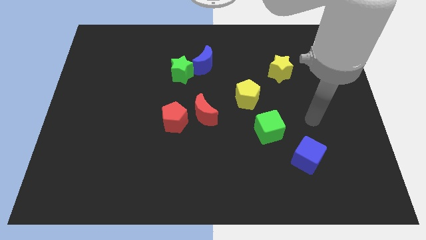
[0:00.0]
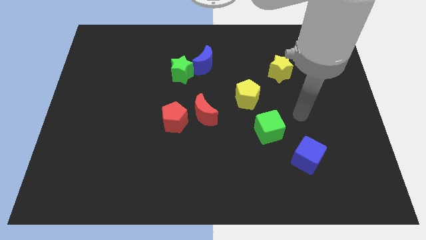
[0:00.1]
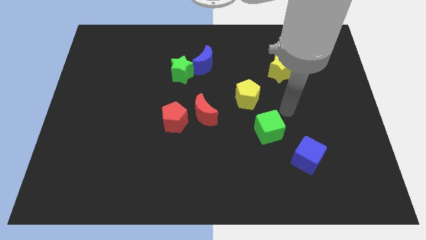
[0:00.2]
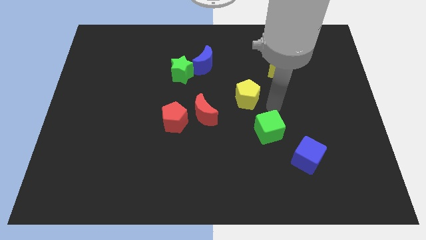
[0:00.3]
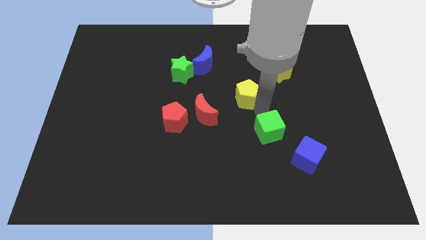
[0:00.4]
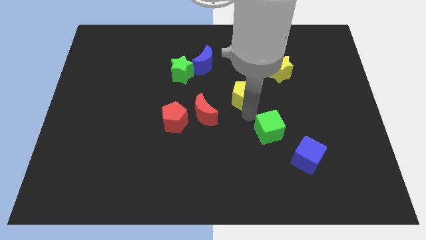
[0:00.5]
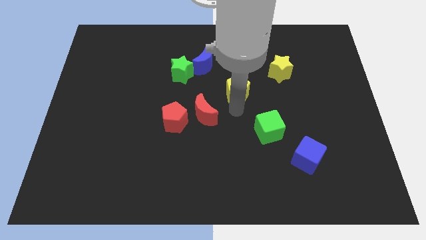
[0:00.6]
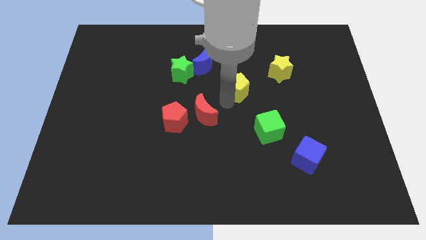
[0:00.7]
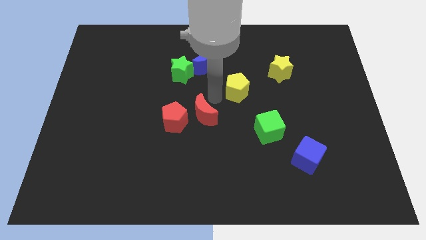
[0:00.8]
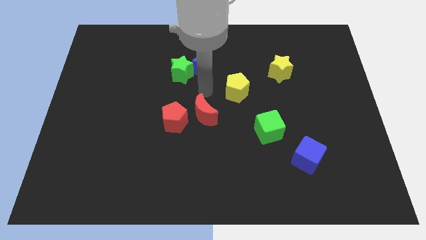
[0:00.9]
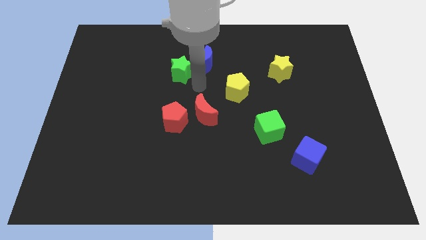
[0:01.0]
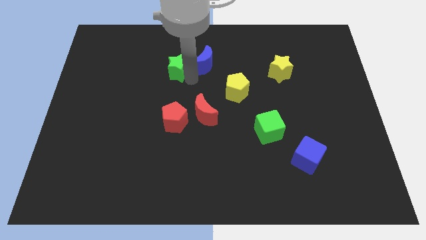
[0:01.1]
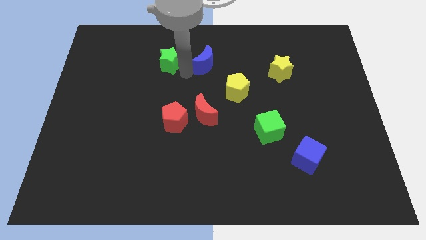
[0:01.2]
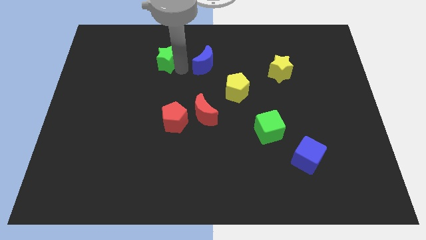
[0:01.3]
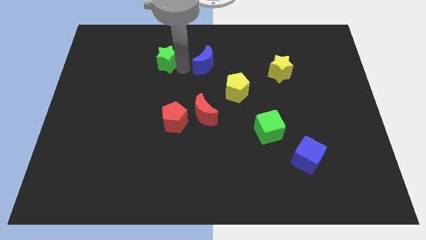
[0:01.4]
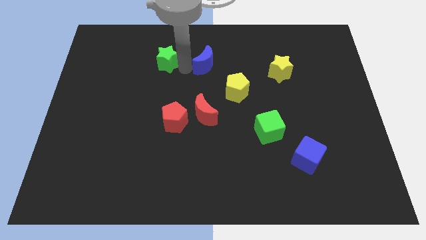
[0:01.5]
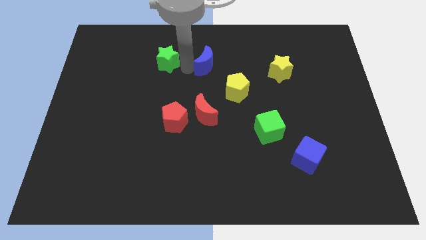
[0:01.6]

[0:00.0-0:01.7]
pull the blue moon apart from the green star

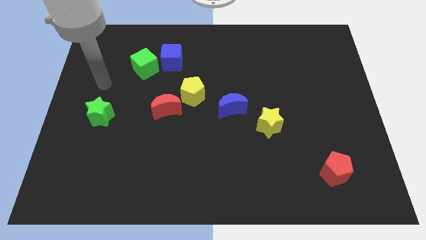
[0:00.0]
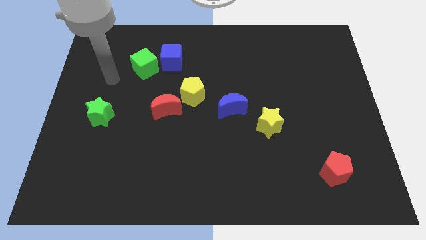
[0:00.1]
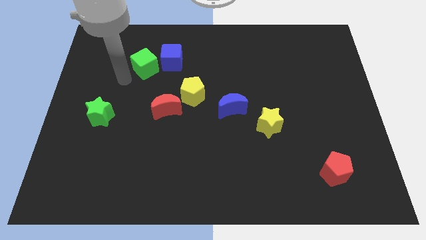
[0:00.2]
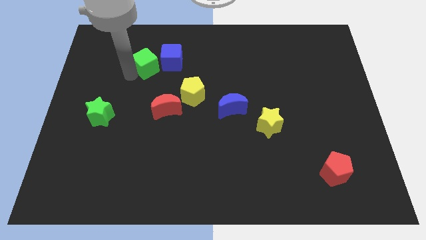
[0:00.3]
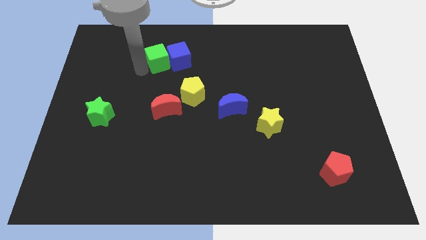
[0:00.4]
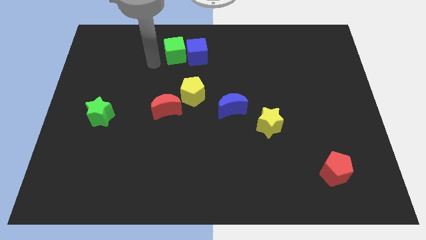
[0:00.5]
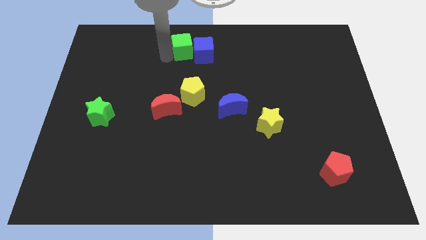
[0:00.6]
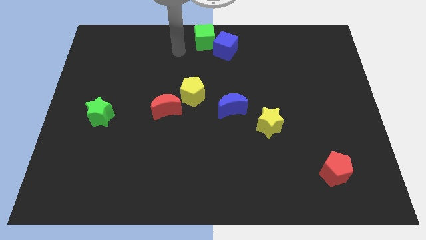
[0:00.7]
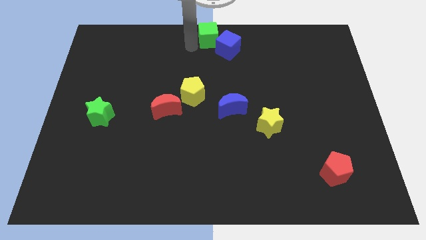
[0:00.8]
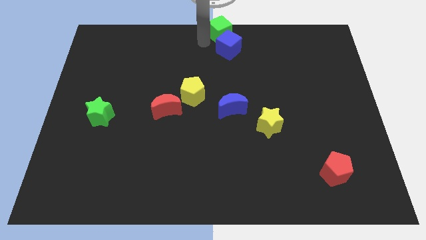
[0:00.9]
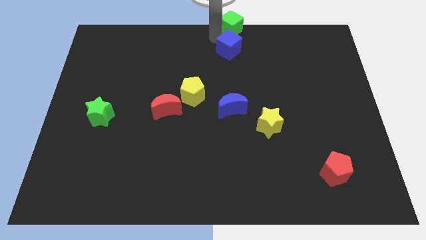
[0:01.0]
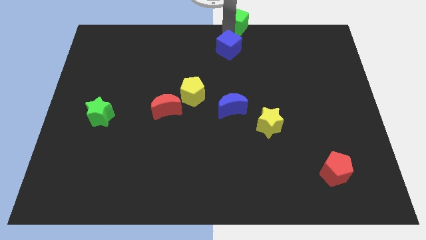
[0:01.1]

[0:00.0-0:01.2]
separate the blue cube from the green cube

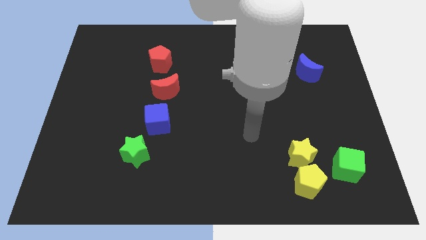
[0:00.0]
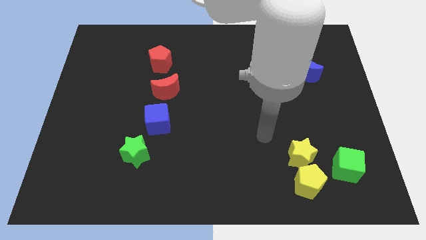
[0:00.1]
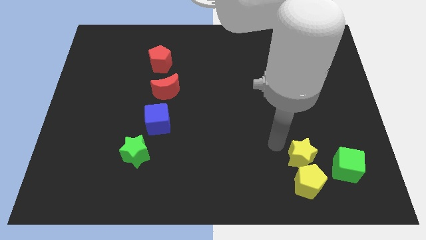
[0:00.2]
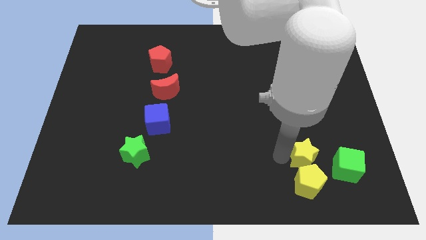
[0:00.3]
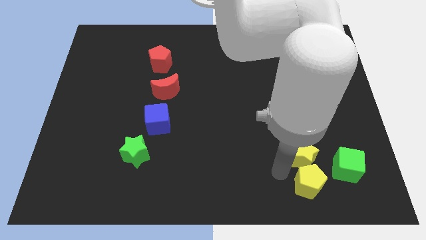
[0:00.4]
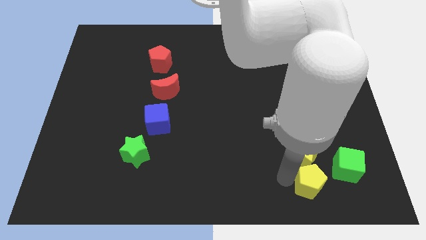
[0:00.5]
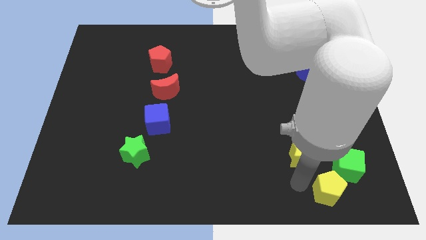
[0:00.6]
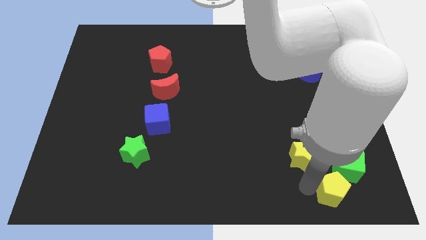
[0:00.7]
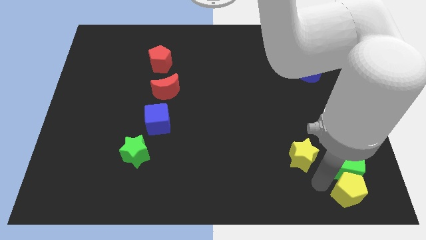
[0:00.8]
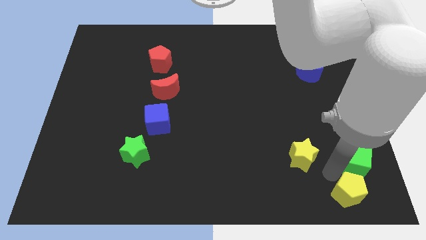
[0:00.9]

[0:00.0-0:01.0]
pull the yellow star apart from the yellow pentagon and green cube

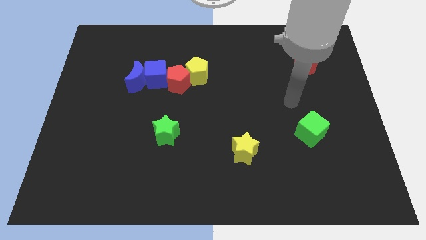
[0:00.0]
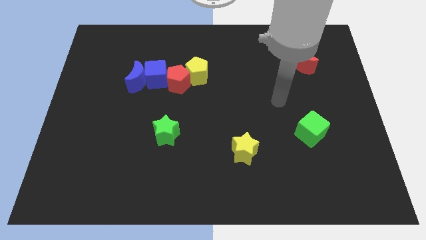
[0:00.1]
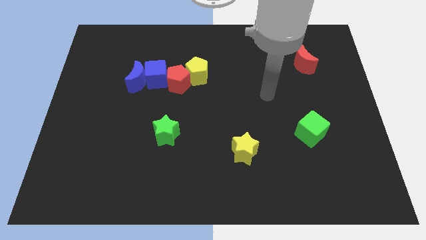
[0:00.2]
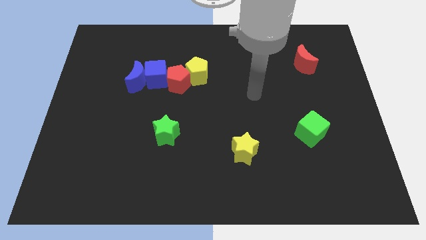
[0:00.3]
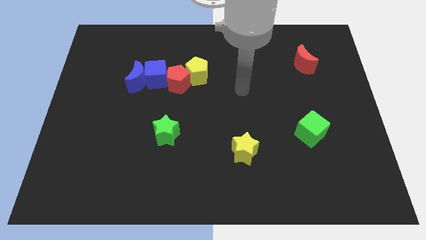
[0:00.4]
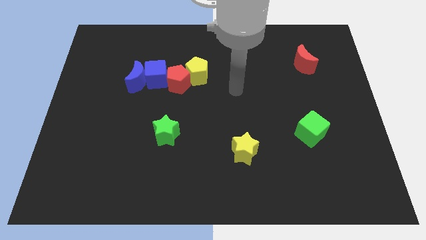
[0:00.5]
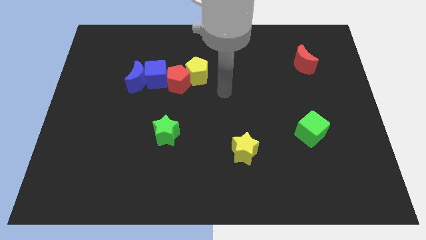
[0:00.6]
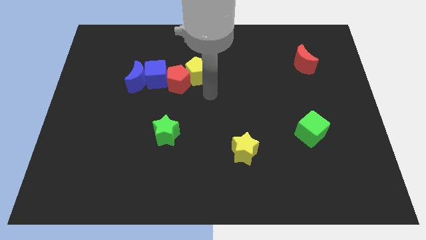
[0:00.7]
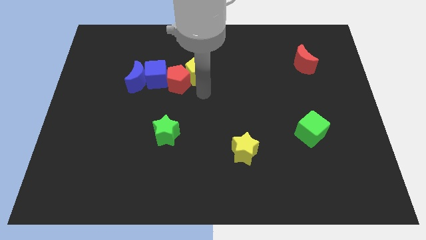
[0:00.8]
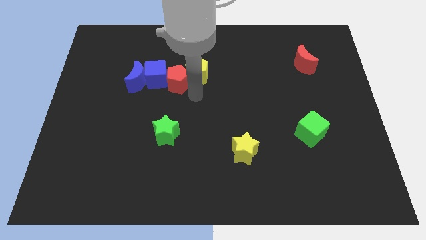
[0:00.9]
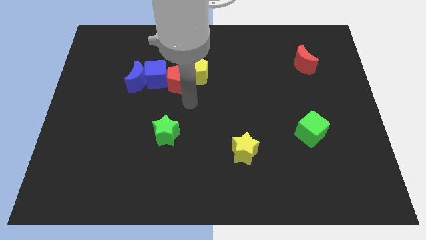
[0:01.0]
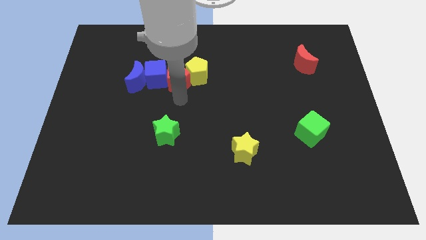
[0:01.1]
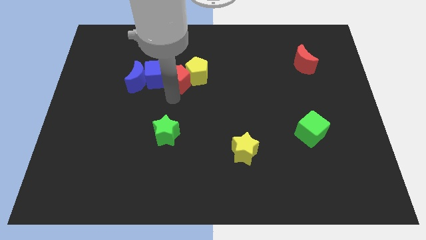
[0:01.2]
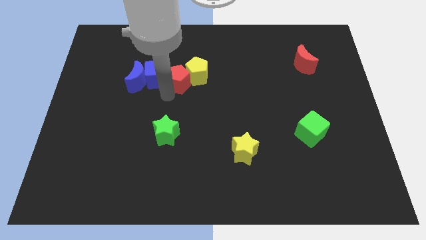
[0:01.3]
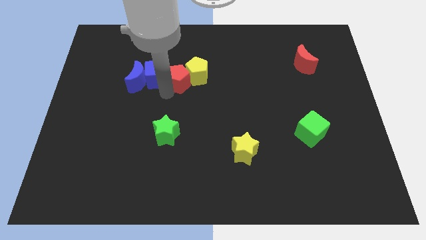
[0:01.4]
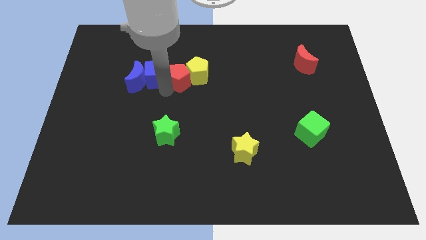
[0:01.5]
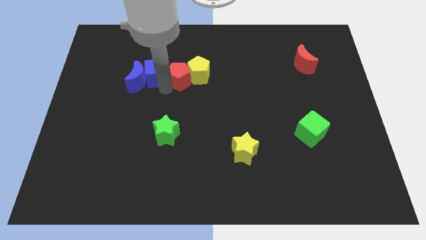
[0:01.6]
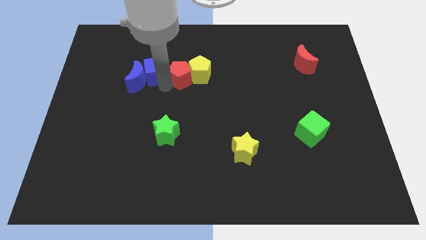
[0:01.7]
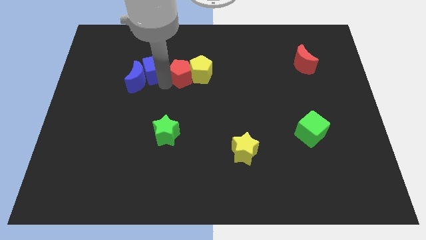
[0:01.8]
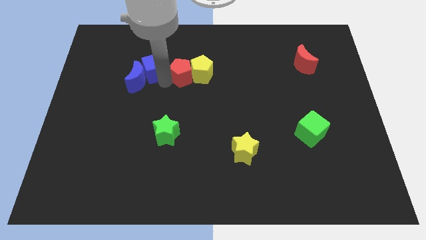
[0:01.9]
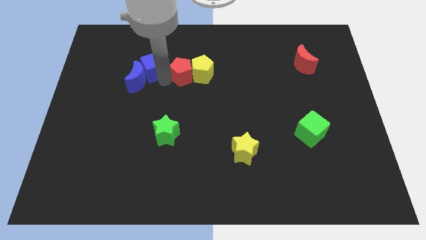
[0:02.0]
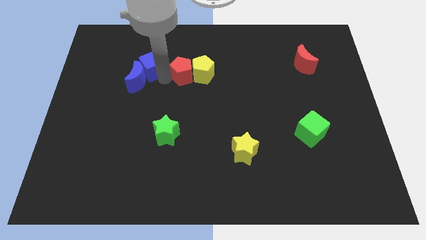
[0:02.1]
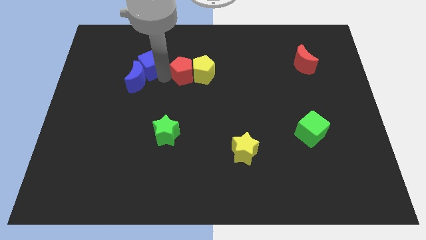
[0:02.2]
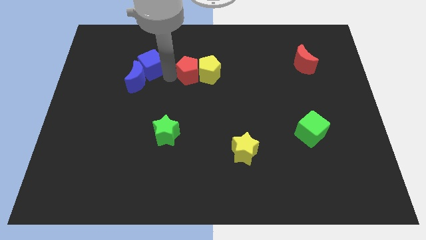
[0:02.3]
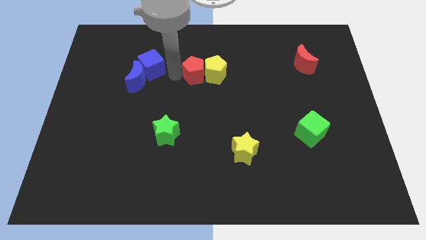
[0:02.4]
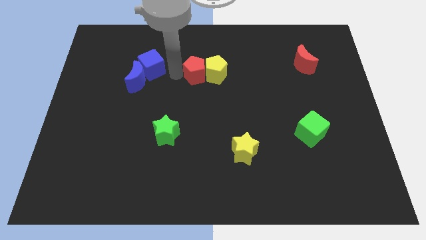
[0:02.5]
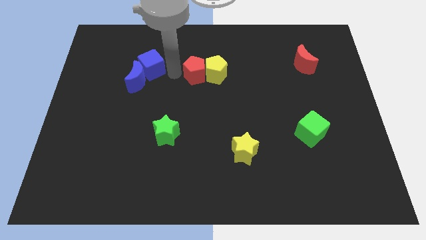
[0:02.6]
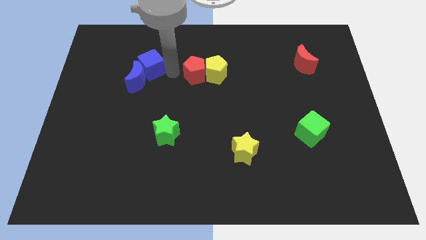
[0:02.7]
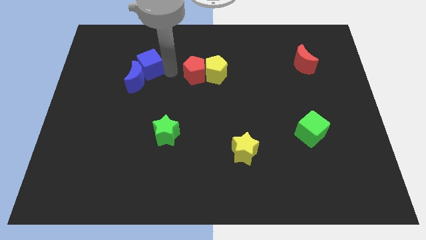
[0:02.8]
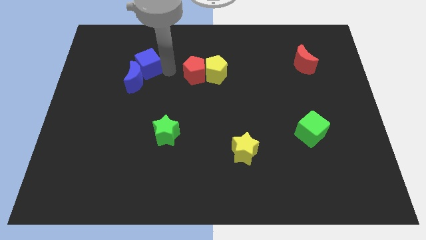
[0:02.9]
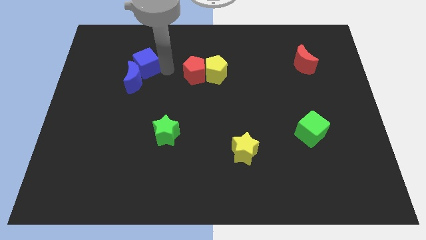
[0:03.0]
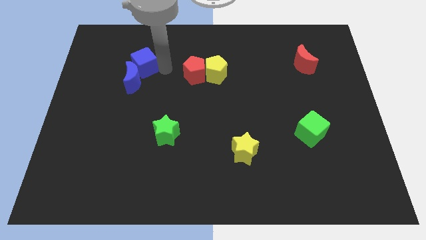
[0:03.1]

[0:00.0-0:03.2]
move the blue cube away from the blue moon, red pentagon, and yellow pentagon

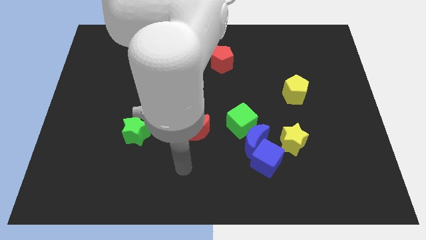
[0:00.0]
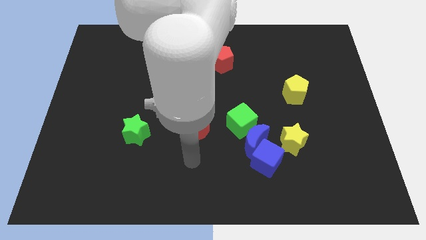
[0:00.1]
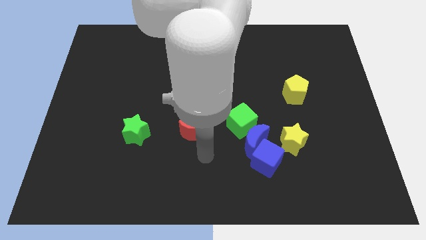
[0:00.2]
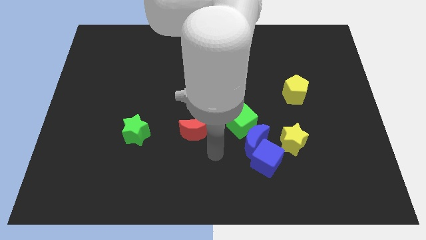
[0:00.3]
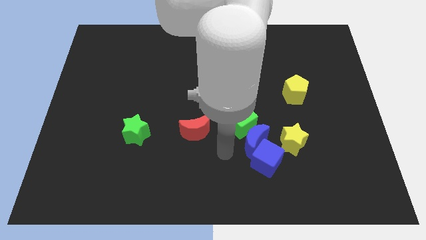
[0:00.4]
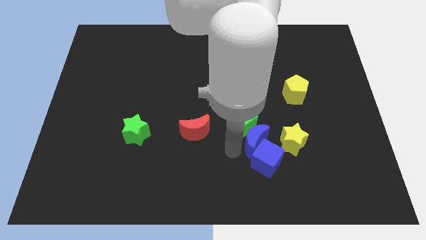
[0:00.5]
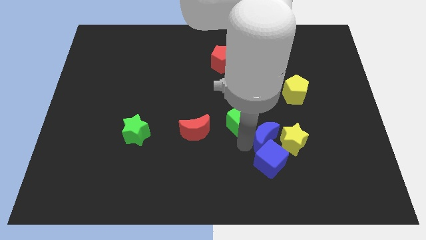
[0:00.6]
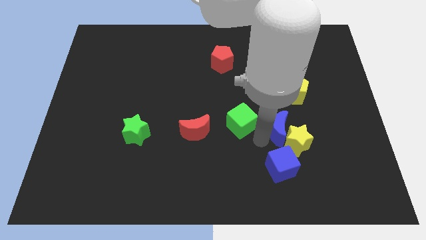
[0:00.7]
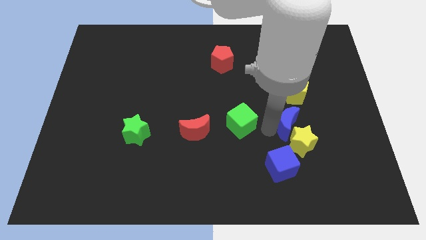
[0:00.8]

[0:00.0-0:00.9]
move the green cube away from the blue moon

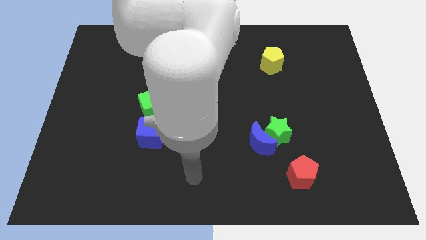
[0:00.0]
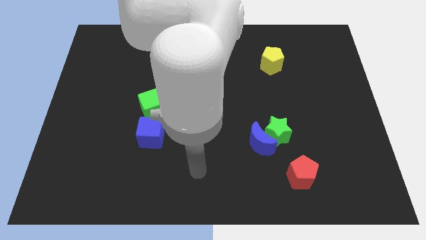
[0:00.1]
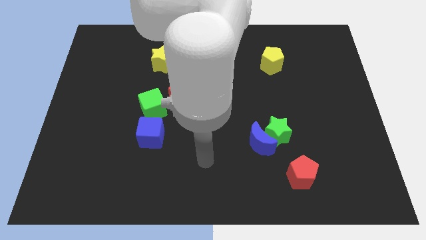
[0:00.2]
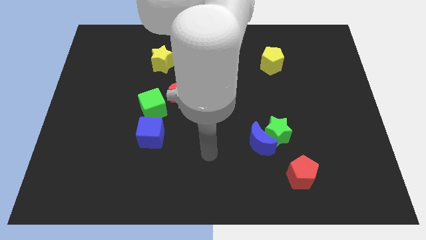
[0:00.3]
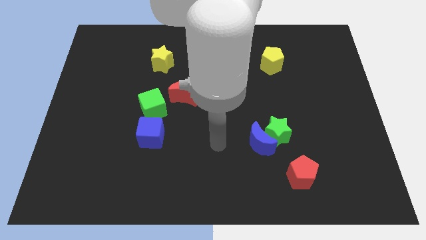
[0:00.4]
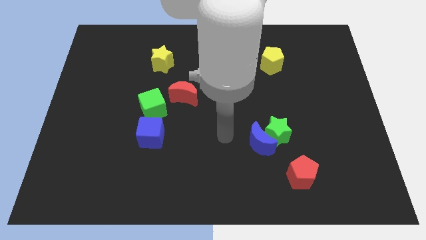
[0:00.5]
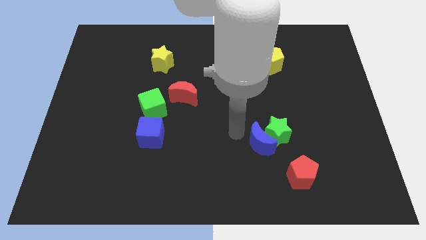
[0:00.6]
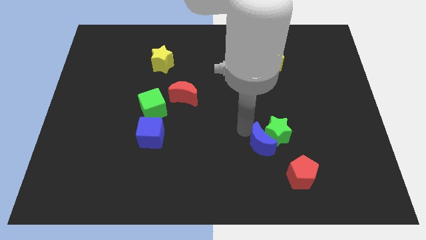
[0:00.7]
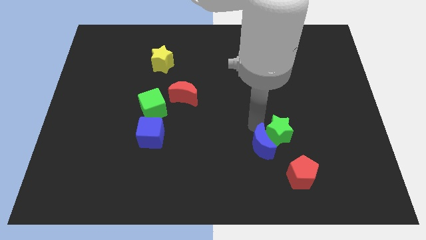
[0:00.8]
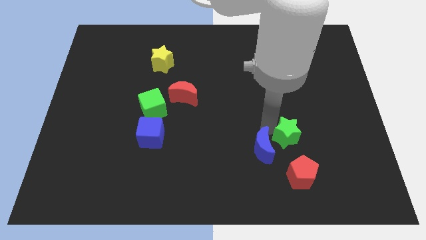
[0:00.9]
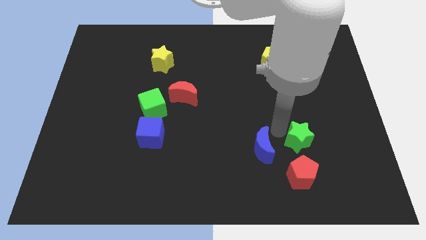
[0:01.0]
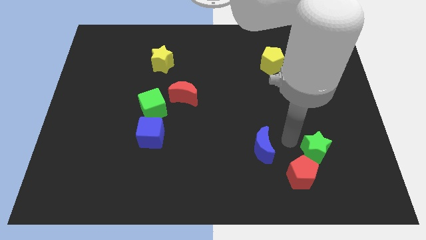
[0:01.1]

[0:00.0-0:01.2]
separate the blue moon from the green star

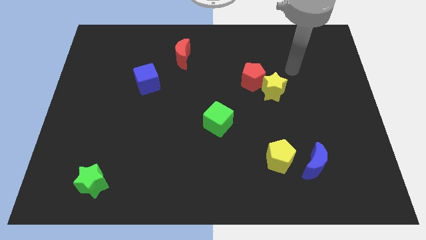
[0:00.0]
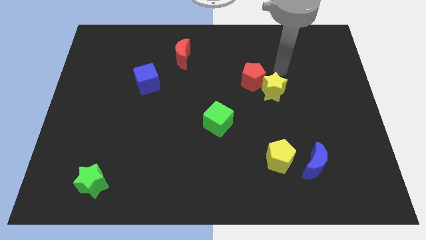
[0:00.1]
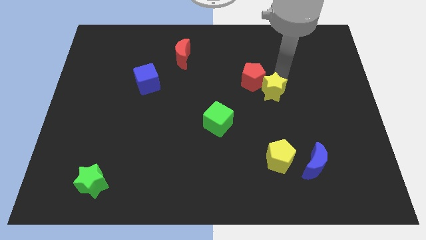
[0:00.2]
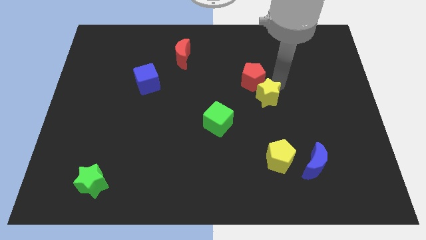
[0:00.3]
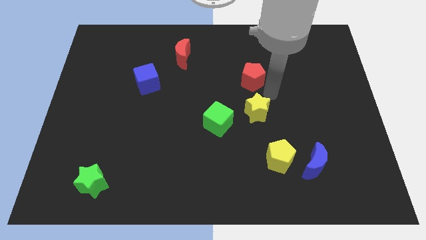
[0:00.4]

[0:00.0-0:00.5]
separate the red pentagon from the yellow star
